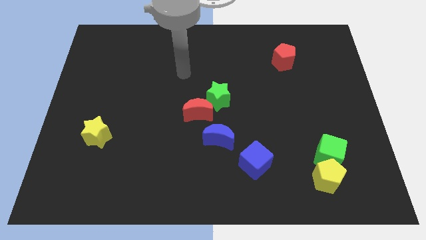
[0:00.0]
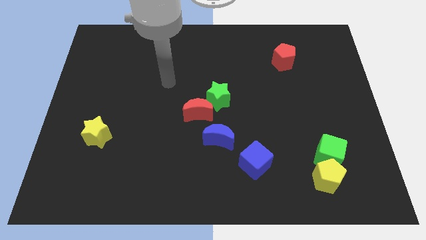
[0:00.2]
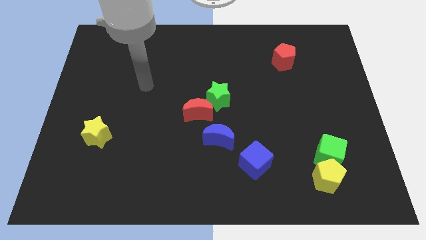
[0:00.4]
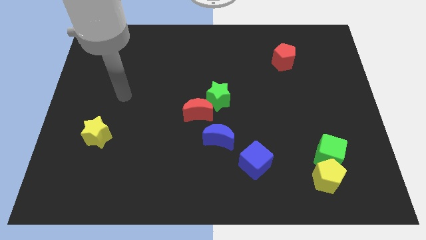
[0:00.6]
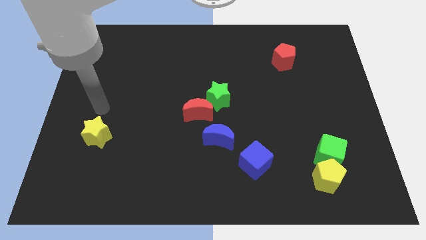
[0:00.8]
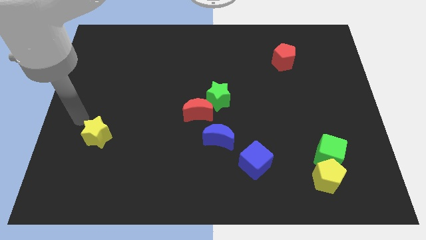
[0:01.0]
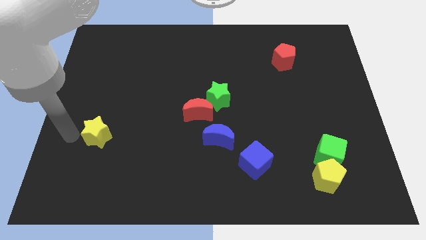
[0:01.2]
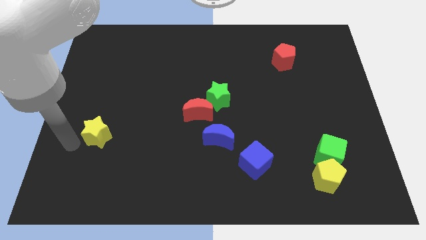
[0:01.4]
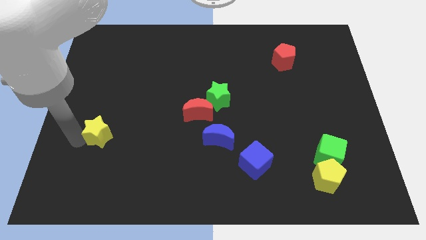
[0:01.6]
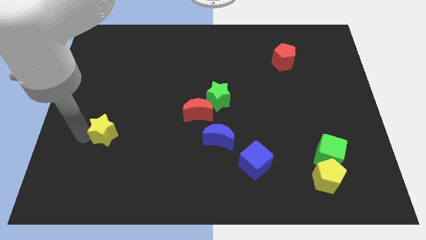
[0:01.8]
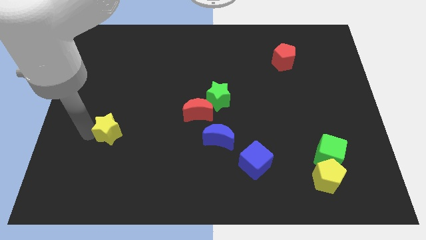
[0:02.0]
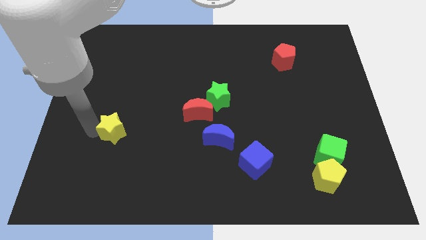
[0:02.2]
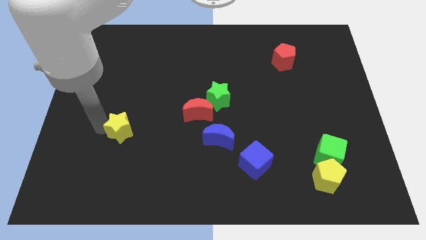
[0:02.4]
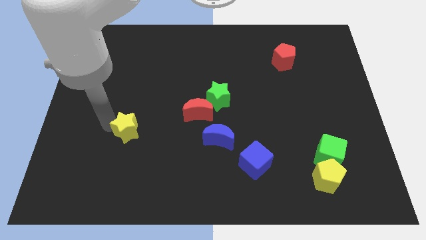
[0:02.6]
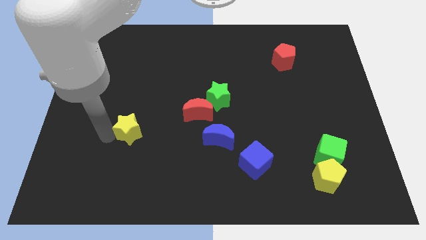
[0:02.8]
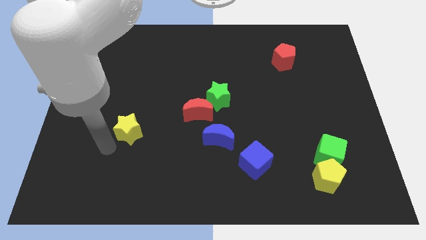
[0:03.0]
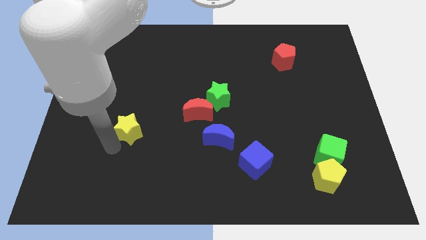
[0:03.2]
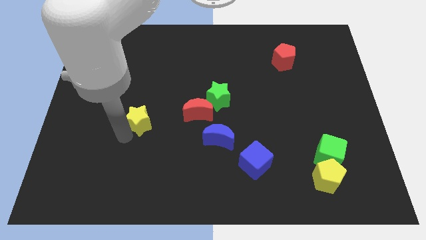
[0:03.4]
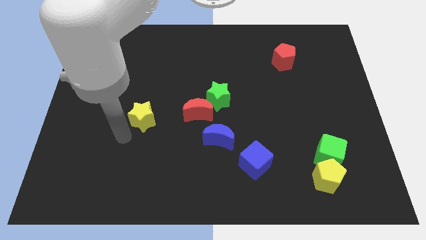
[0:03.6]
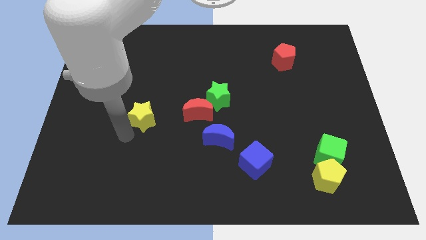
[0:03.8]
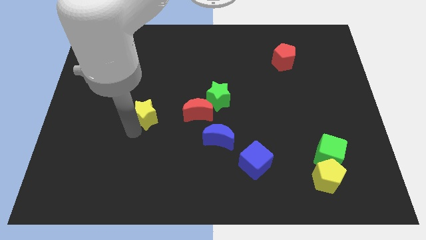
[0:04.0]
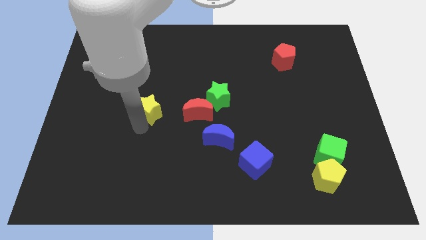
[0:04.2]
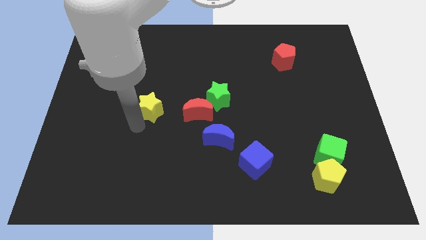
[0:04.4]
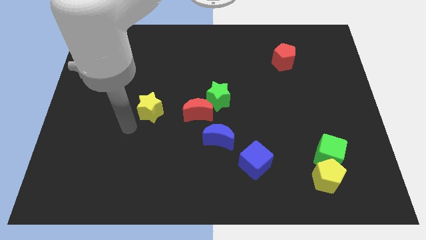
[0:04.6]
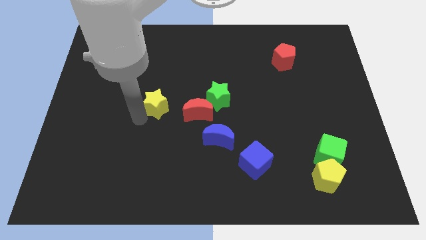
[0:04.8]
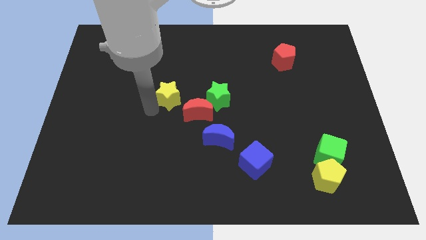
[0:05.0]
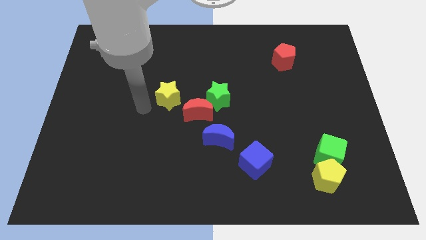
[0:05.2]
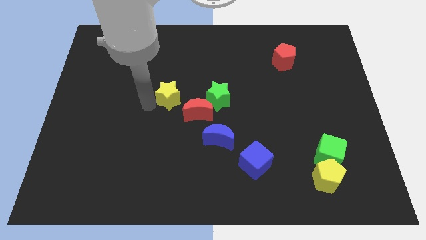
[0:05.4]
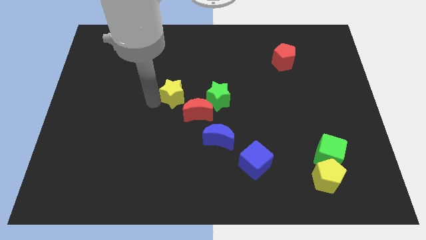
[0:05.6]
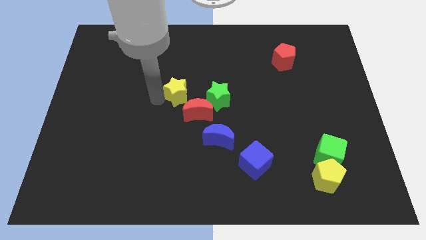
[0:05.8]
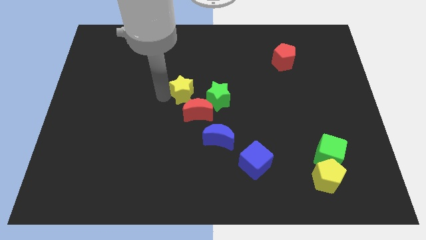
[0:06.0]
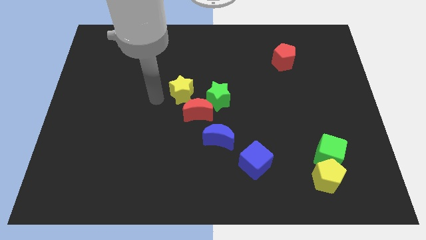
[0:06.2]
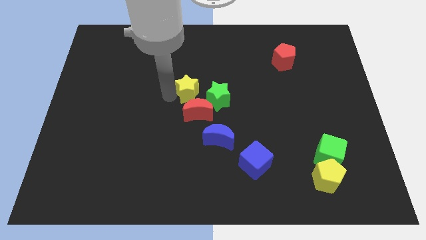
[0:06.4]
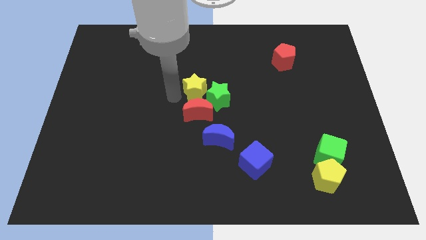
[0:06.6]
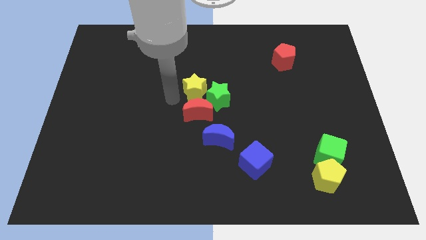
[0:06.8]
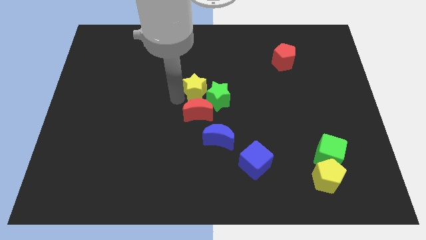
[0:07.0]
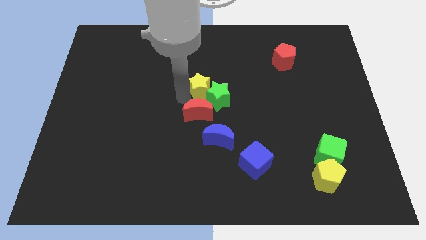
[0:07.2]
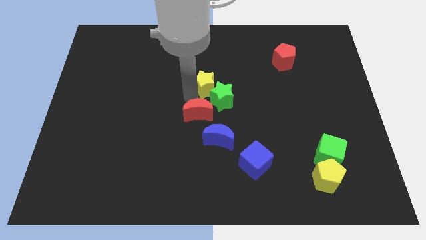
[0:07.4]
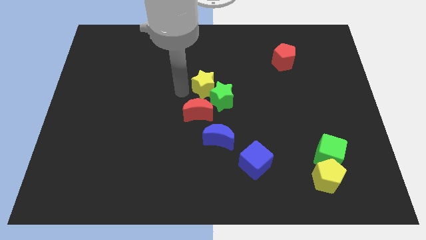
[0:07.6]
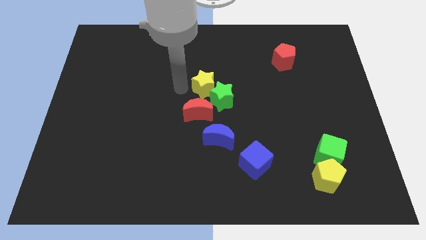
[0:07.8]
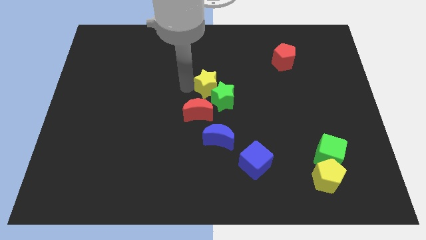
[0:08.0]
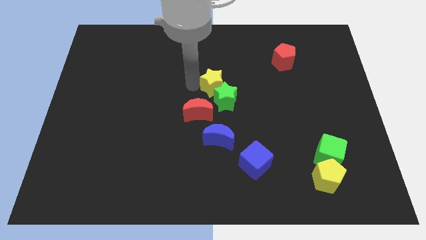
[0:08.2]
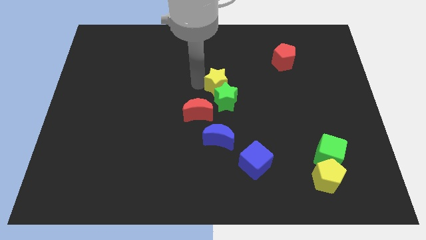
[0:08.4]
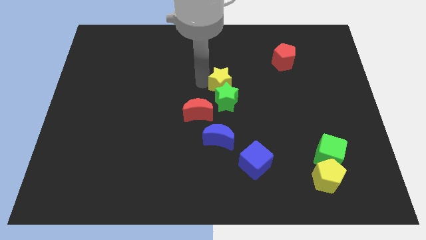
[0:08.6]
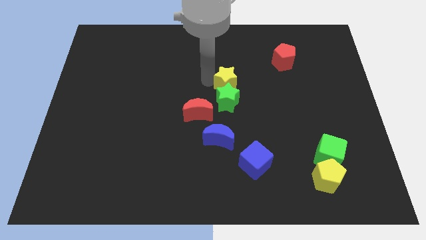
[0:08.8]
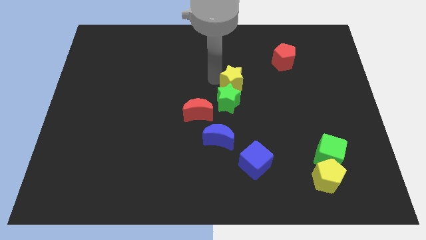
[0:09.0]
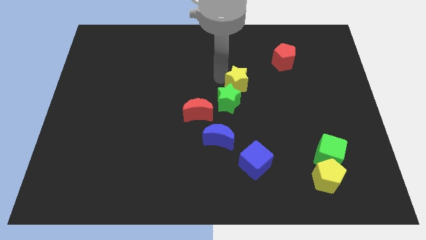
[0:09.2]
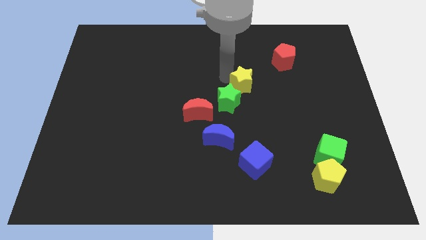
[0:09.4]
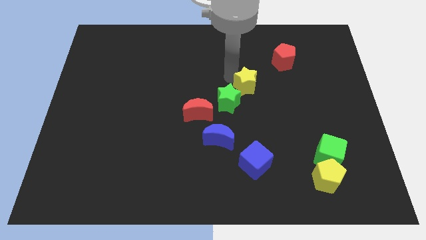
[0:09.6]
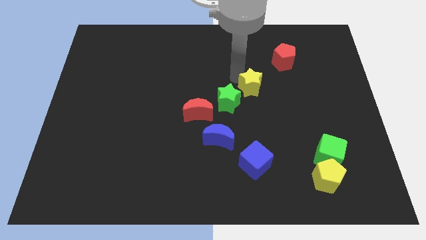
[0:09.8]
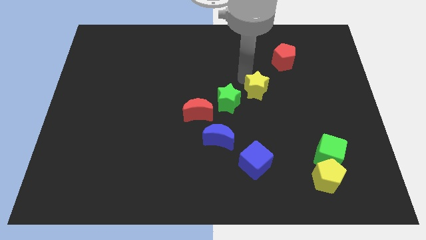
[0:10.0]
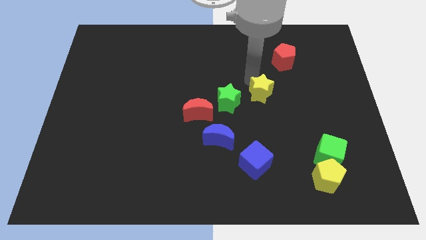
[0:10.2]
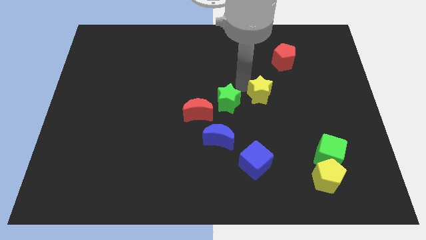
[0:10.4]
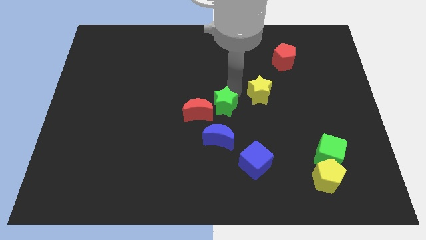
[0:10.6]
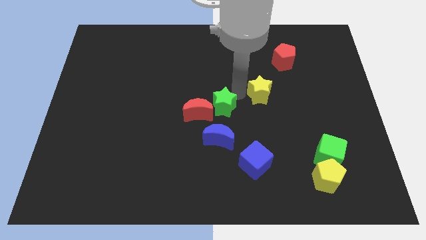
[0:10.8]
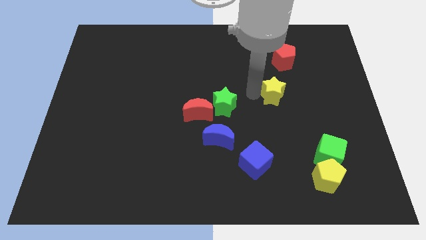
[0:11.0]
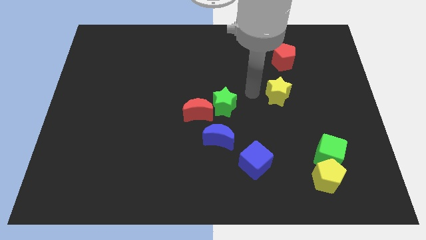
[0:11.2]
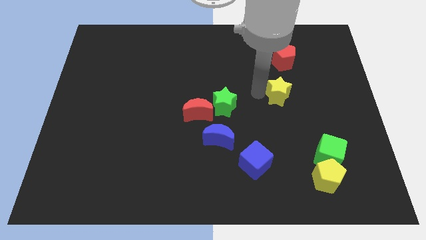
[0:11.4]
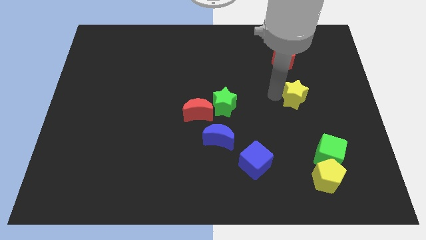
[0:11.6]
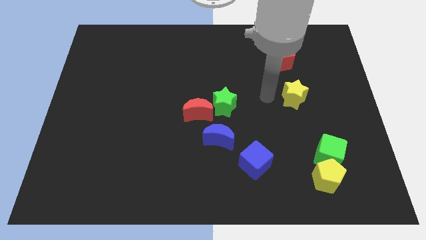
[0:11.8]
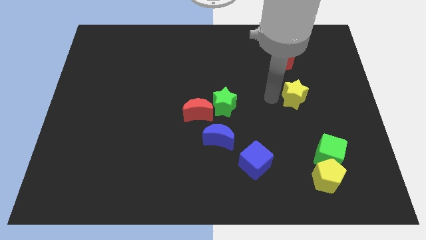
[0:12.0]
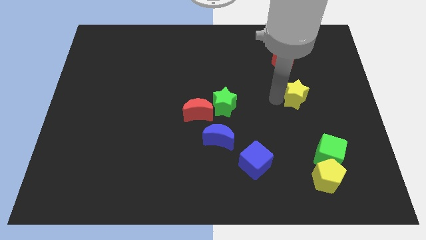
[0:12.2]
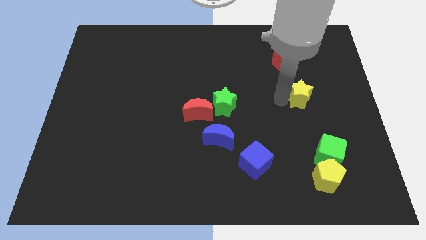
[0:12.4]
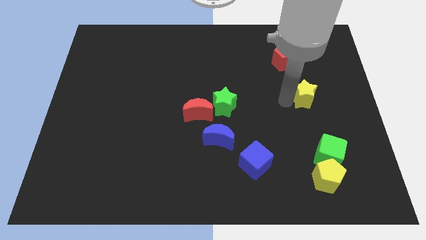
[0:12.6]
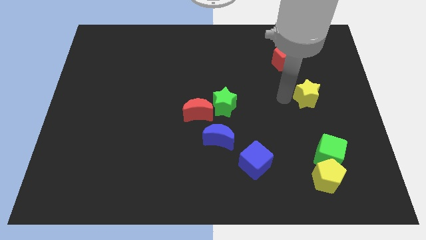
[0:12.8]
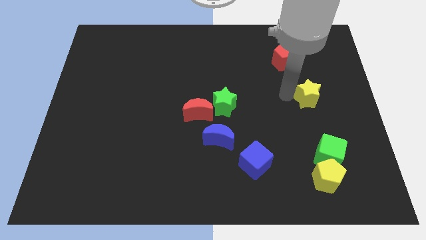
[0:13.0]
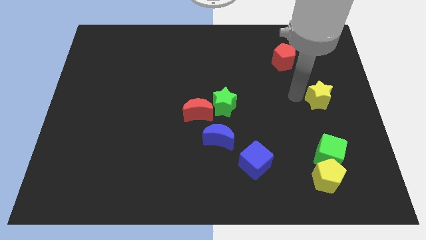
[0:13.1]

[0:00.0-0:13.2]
move the yellow star to the center right

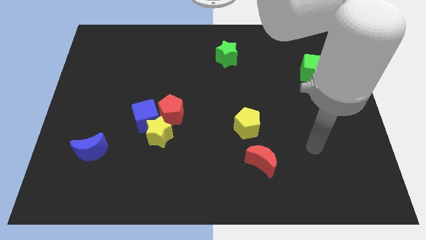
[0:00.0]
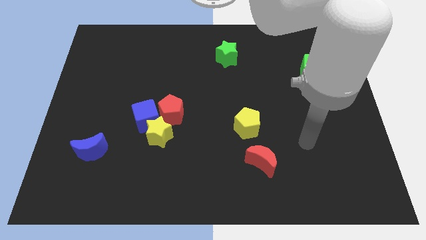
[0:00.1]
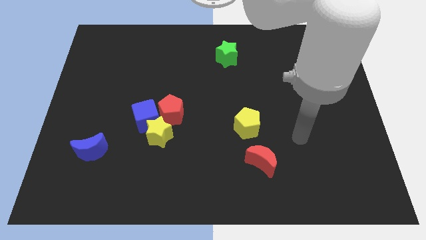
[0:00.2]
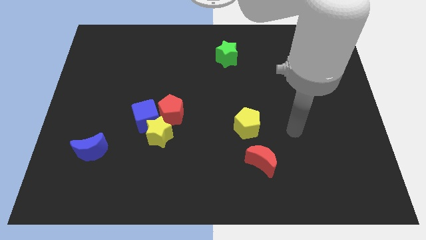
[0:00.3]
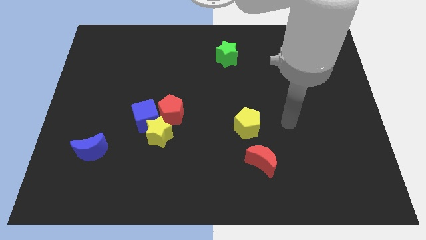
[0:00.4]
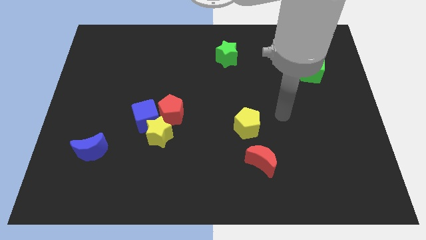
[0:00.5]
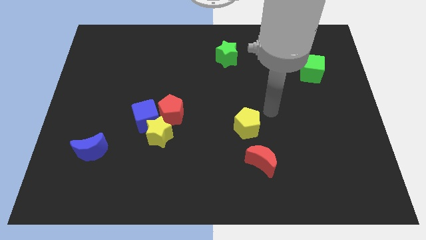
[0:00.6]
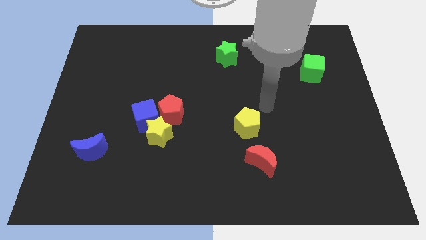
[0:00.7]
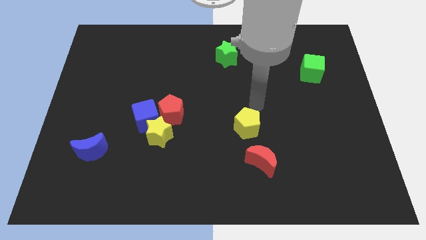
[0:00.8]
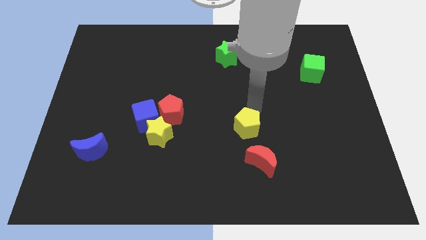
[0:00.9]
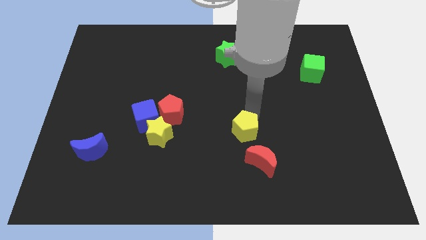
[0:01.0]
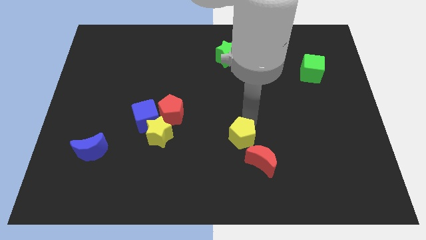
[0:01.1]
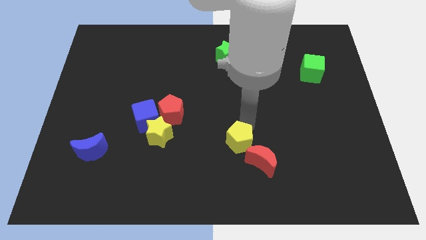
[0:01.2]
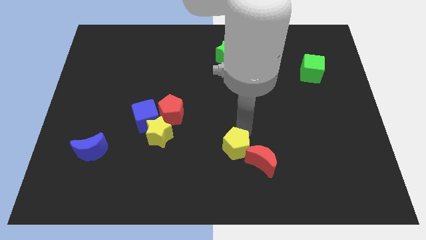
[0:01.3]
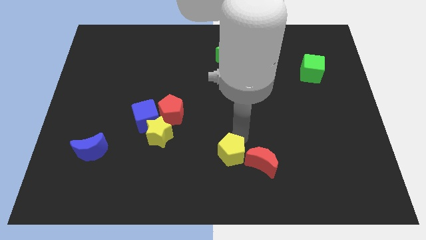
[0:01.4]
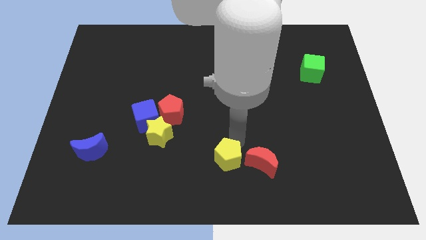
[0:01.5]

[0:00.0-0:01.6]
push the yellow pentagon to the bottom
